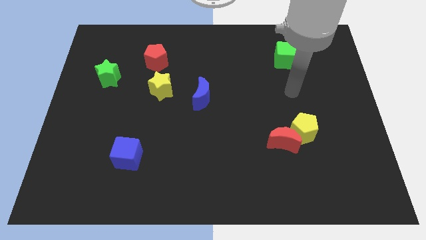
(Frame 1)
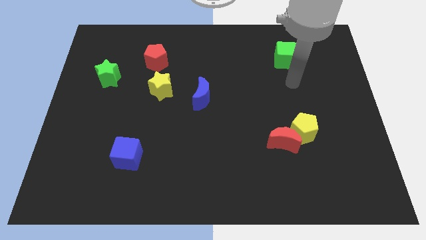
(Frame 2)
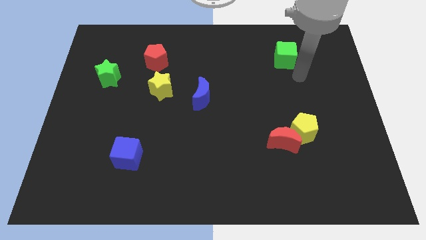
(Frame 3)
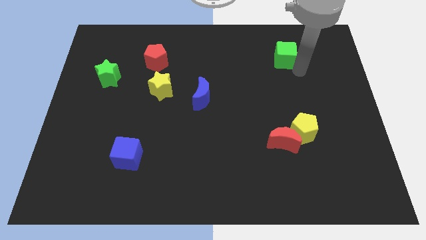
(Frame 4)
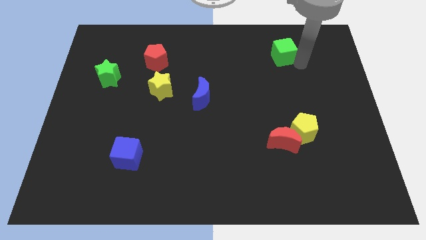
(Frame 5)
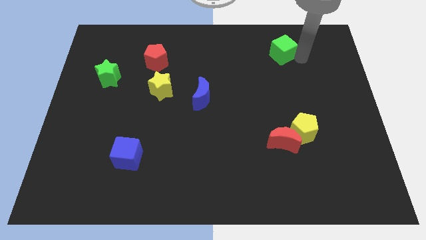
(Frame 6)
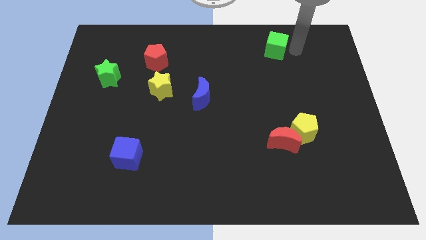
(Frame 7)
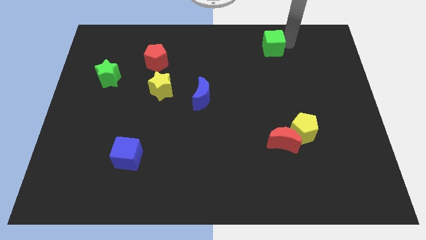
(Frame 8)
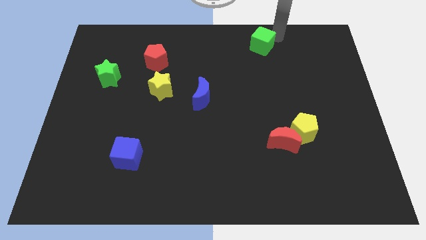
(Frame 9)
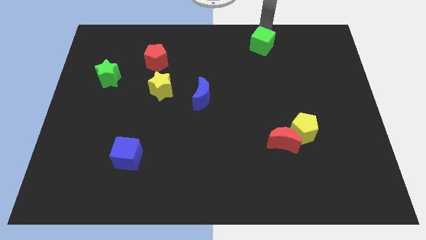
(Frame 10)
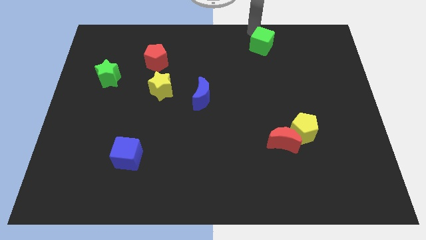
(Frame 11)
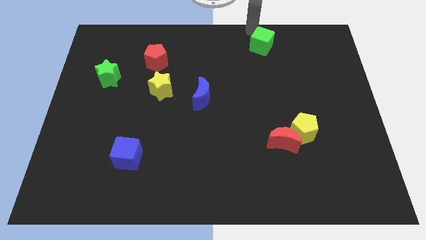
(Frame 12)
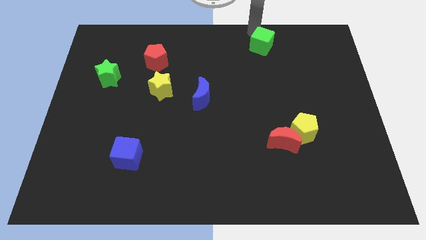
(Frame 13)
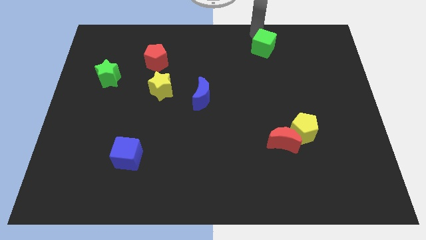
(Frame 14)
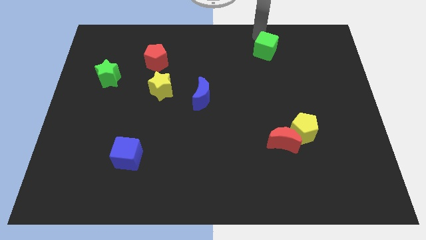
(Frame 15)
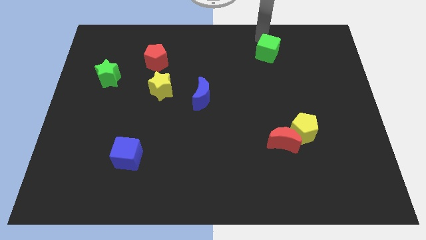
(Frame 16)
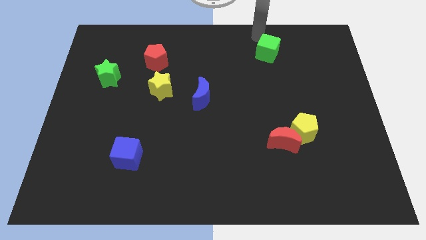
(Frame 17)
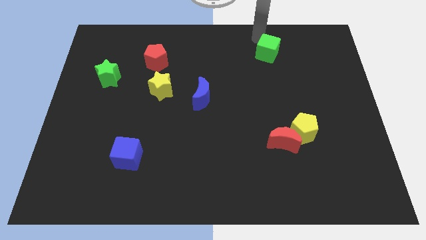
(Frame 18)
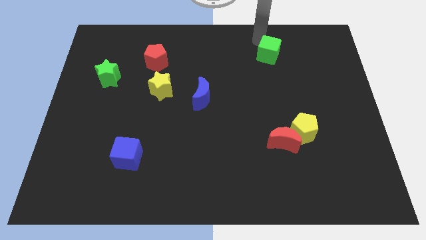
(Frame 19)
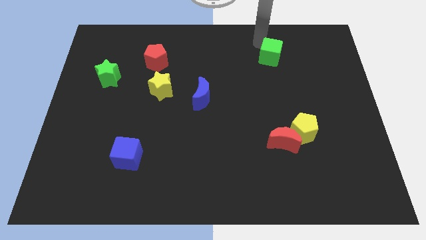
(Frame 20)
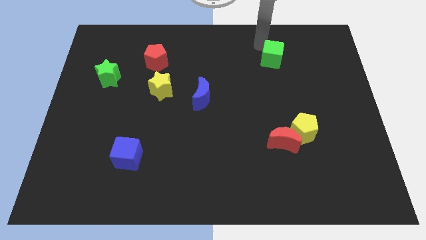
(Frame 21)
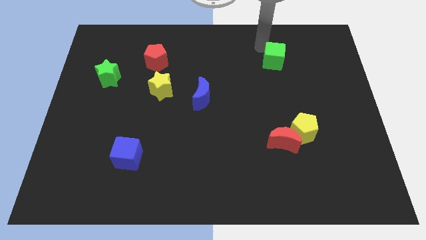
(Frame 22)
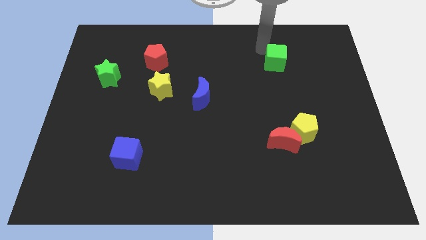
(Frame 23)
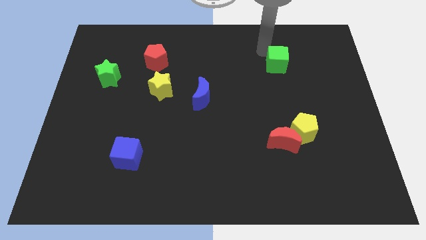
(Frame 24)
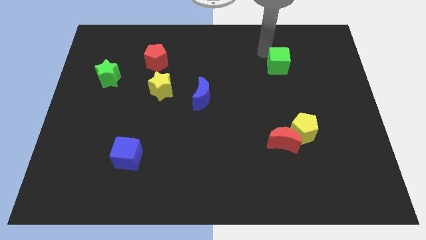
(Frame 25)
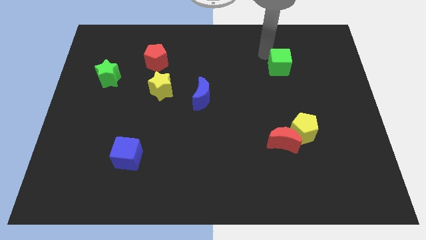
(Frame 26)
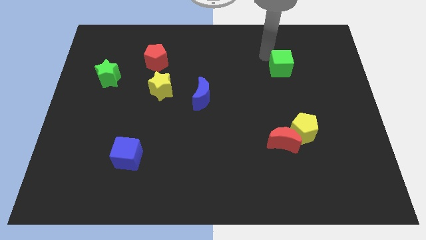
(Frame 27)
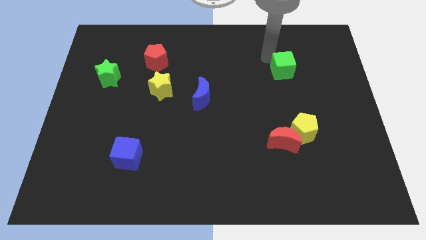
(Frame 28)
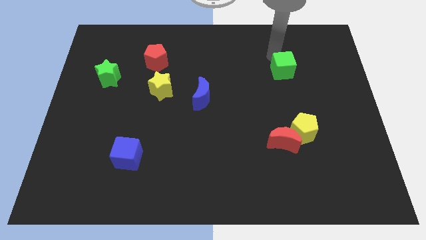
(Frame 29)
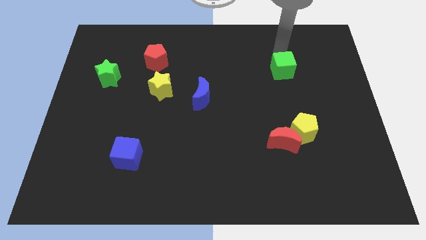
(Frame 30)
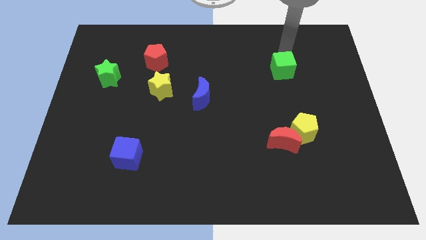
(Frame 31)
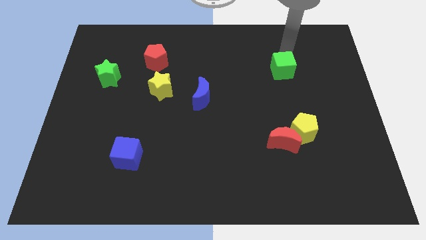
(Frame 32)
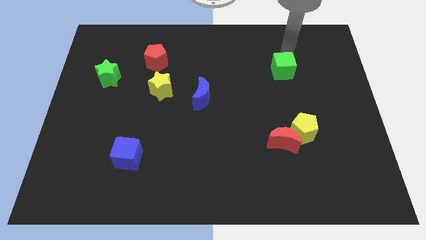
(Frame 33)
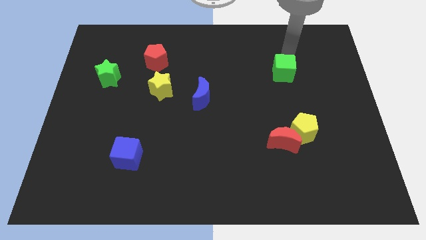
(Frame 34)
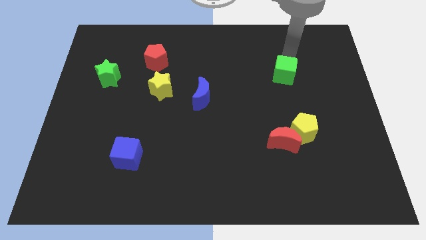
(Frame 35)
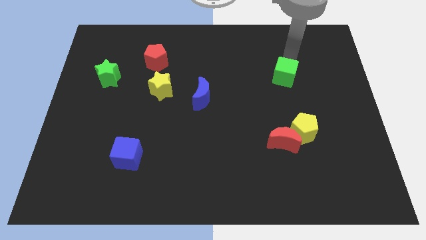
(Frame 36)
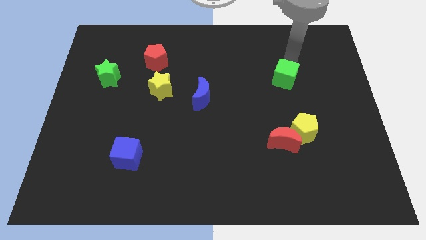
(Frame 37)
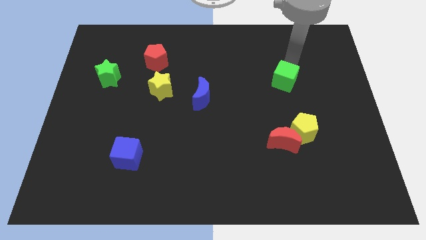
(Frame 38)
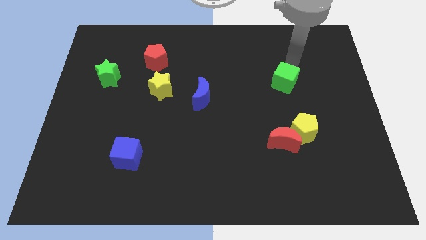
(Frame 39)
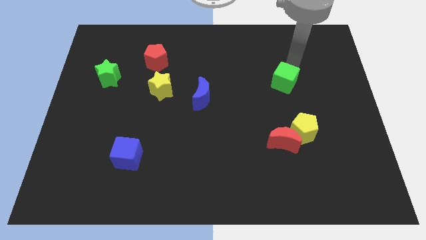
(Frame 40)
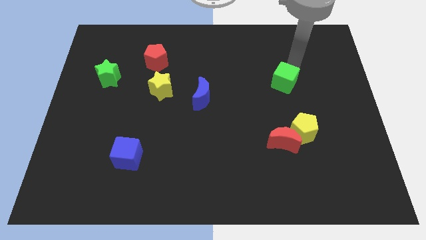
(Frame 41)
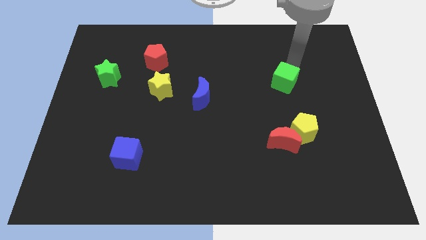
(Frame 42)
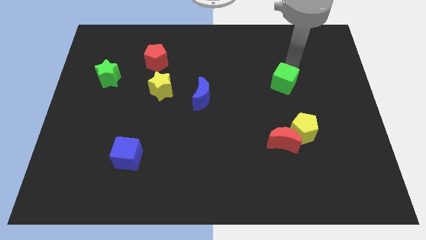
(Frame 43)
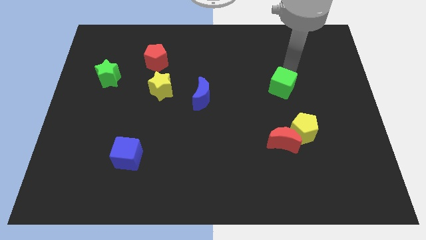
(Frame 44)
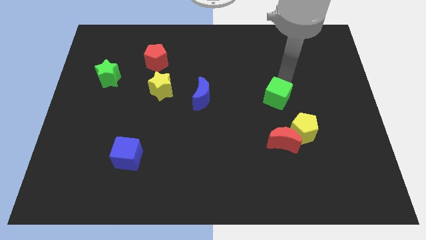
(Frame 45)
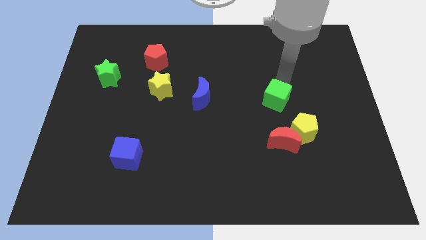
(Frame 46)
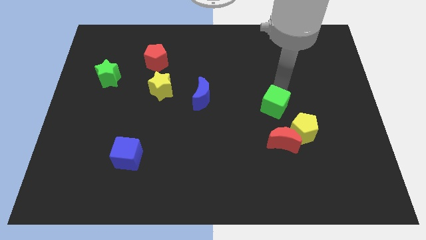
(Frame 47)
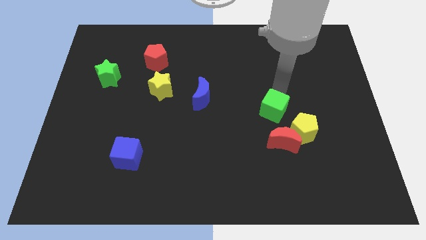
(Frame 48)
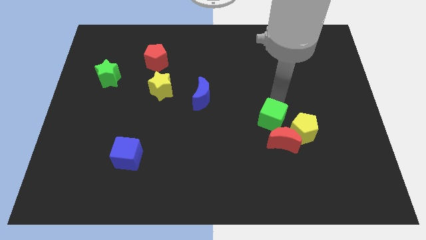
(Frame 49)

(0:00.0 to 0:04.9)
move the green cube to the left of the yellow pentagon

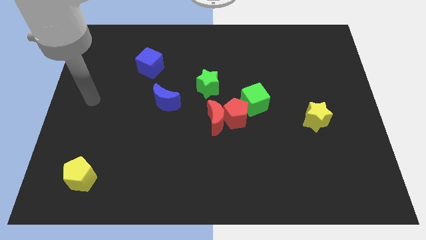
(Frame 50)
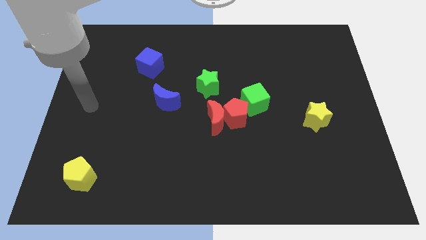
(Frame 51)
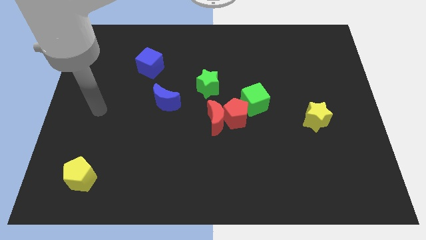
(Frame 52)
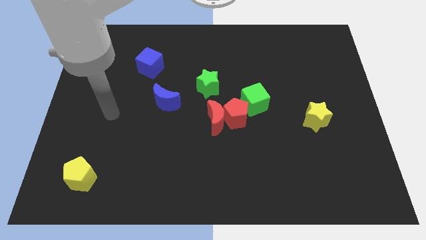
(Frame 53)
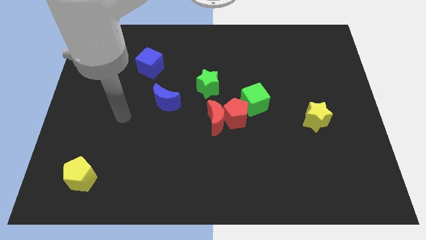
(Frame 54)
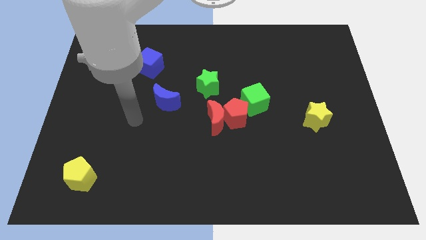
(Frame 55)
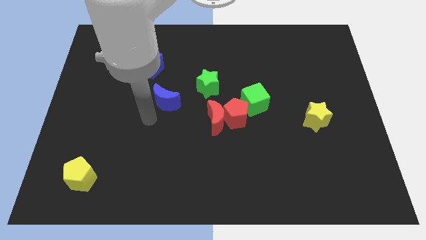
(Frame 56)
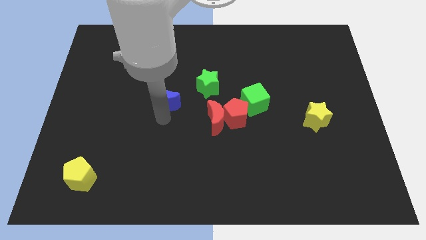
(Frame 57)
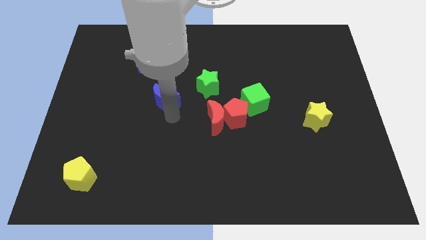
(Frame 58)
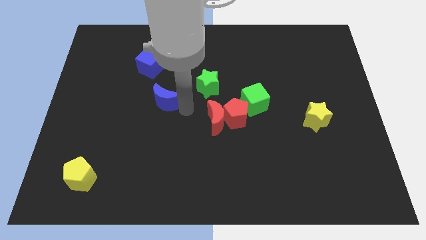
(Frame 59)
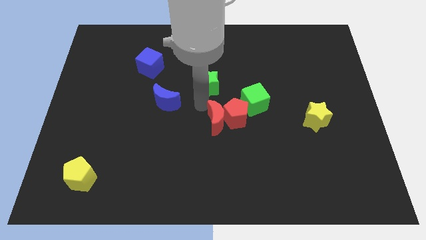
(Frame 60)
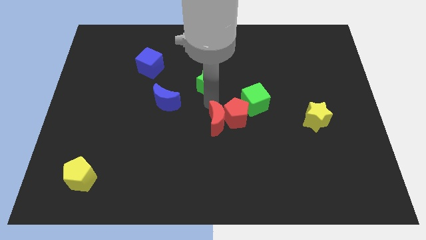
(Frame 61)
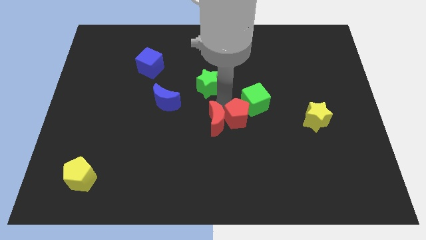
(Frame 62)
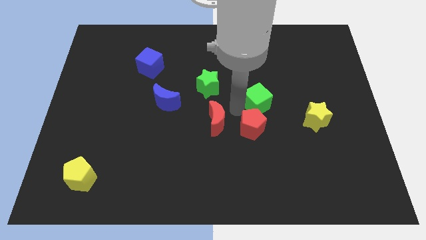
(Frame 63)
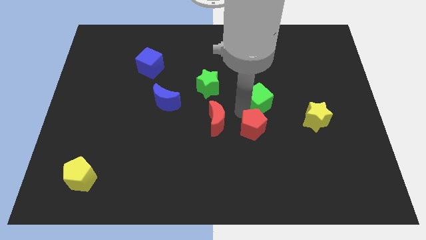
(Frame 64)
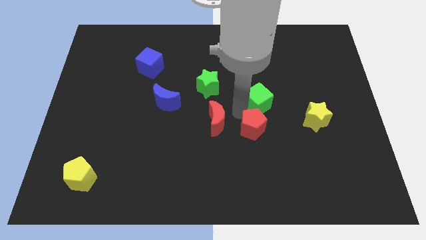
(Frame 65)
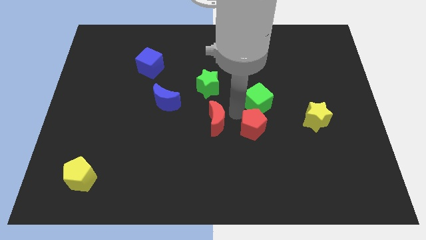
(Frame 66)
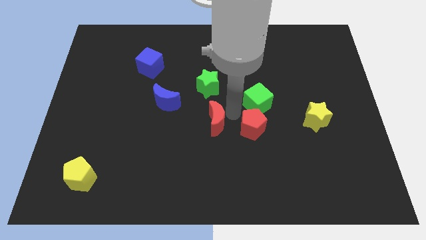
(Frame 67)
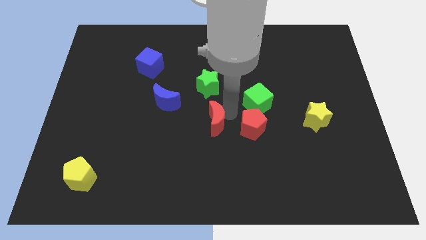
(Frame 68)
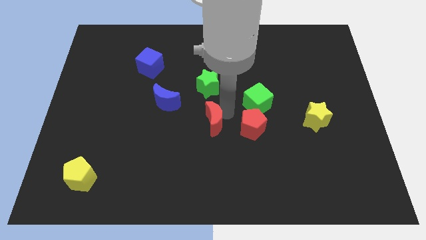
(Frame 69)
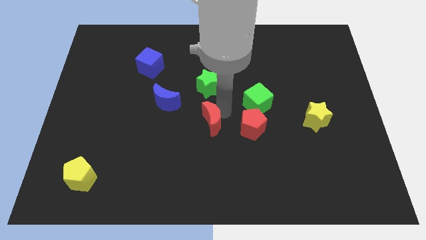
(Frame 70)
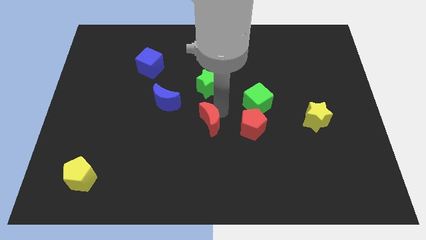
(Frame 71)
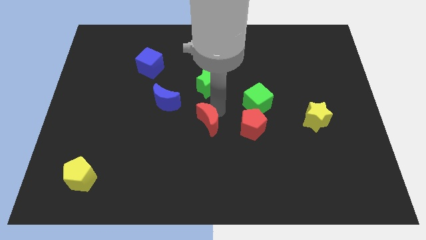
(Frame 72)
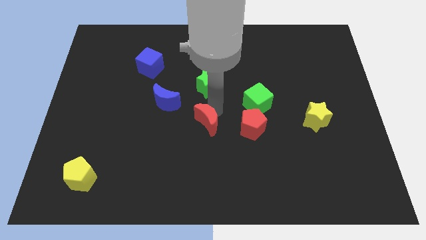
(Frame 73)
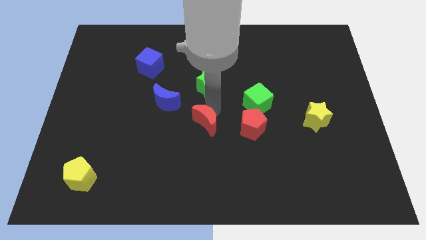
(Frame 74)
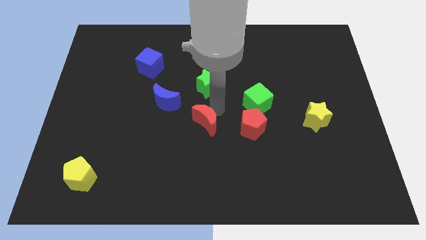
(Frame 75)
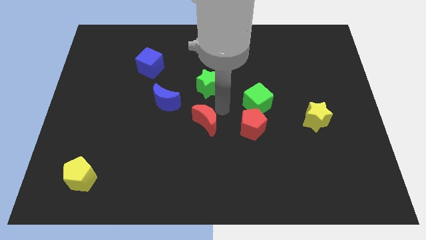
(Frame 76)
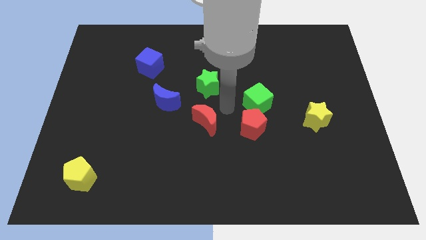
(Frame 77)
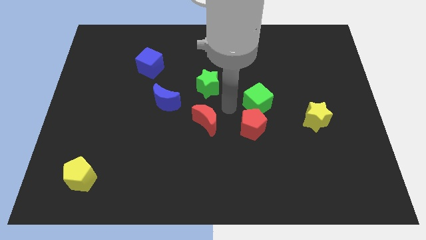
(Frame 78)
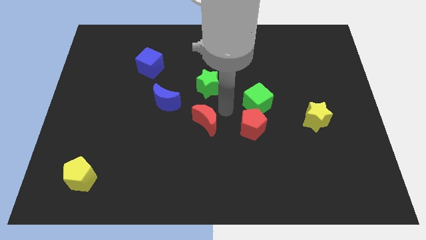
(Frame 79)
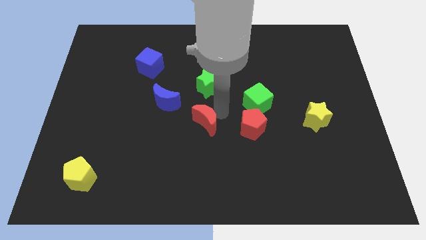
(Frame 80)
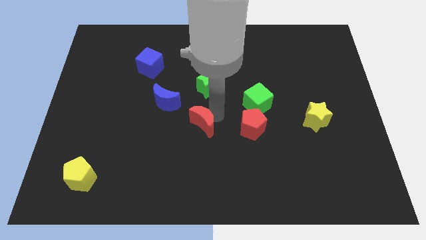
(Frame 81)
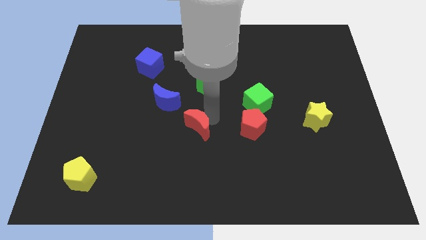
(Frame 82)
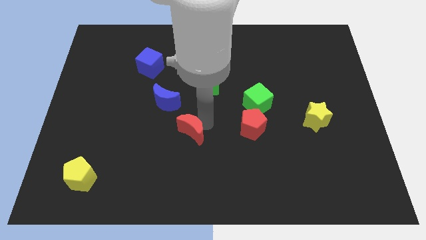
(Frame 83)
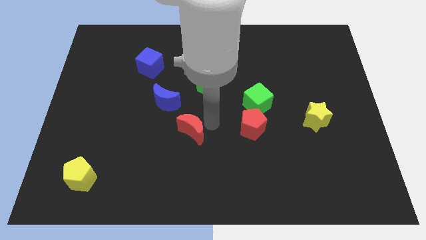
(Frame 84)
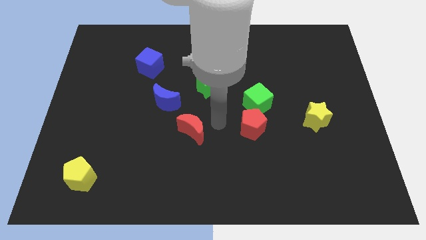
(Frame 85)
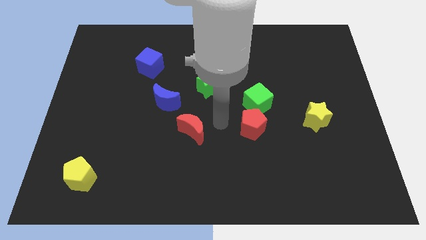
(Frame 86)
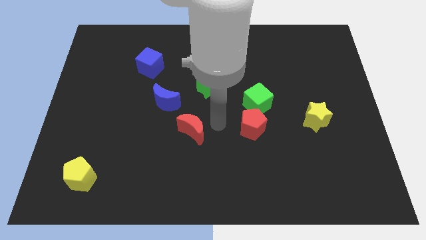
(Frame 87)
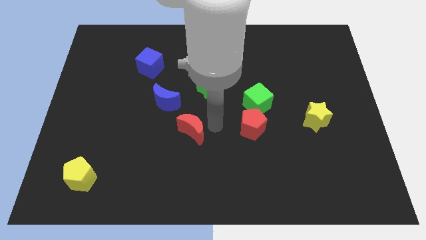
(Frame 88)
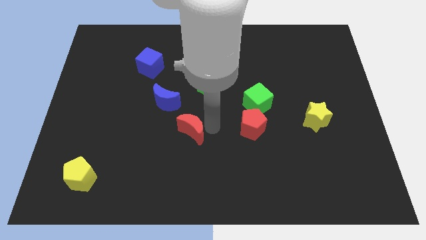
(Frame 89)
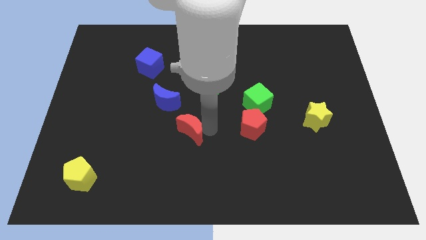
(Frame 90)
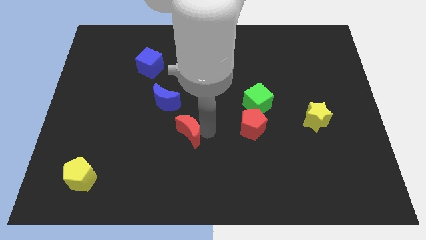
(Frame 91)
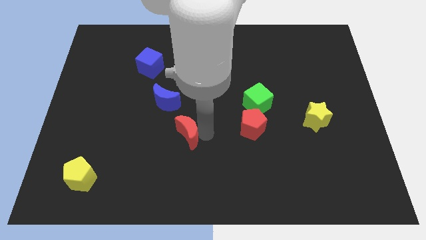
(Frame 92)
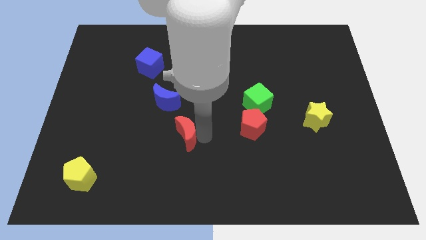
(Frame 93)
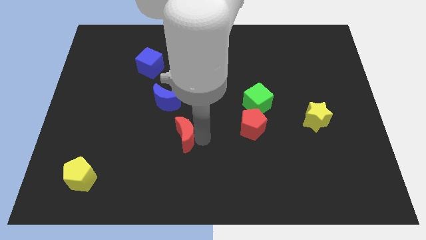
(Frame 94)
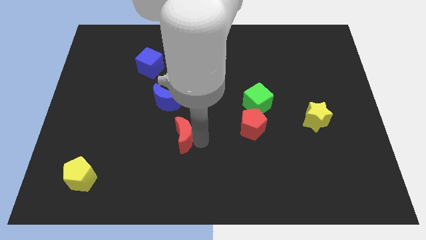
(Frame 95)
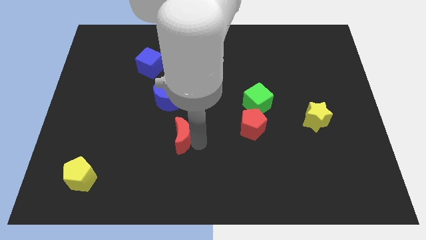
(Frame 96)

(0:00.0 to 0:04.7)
push the red moon to the bottom side of the blue moon
